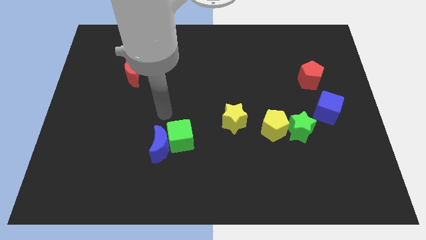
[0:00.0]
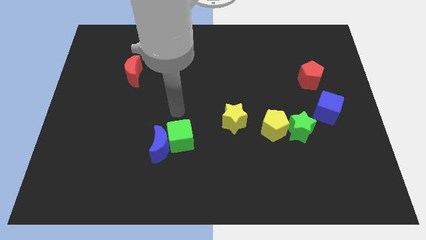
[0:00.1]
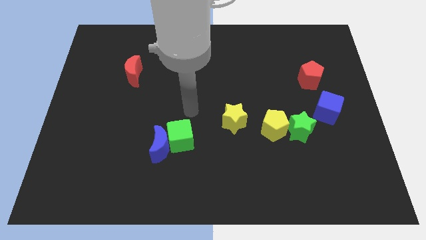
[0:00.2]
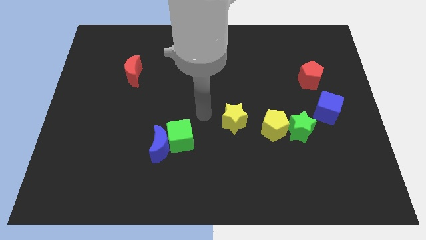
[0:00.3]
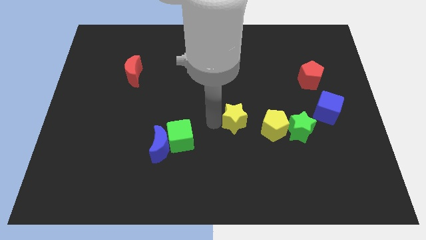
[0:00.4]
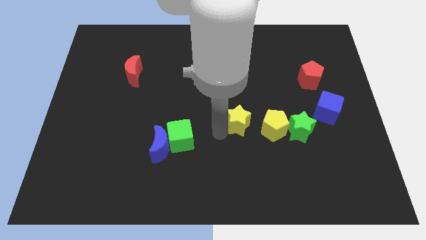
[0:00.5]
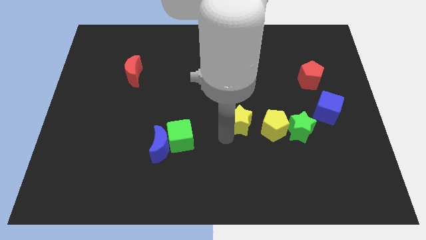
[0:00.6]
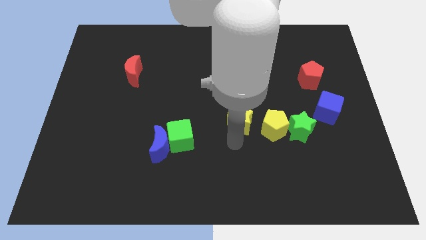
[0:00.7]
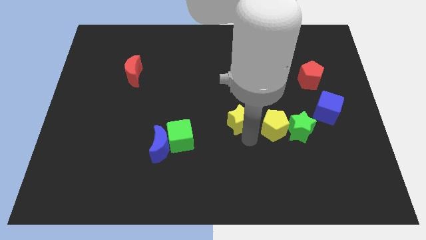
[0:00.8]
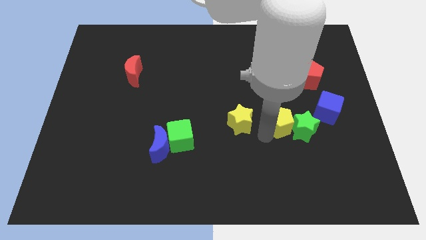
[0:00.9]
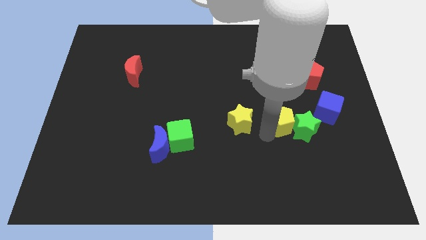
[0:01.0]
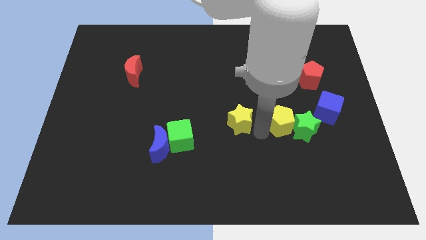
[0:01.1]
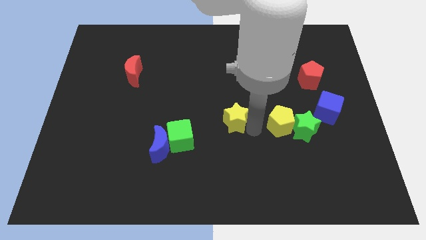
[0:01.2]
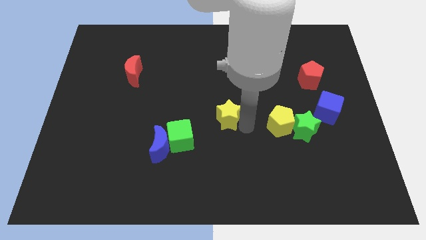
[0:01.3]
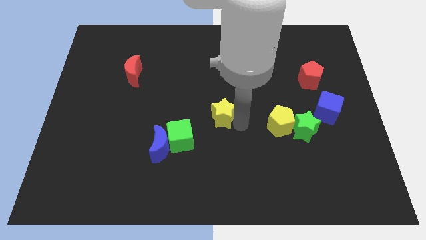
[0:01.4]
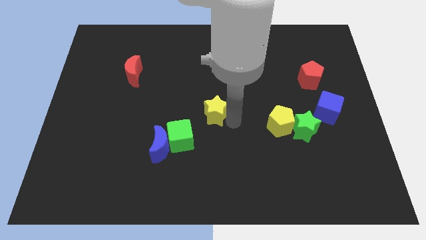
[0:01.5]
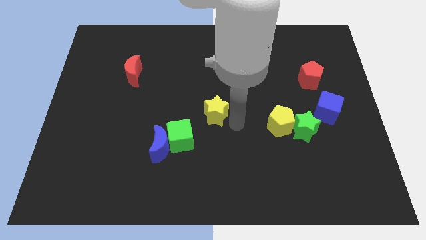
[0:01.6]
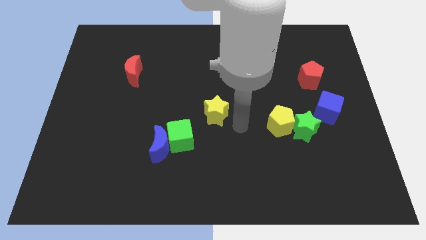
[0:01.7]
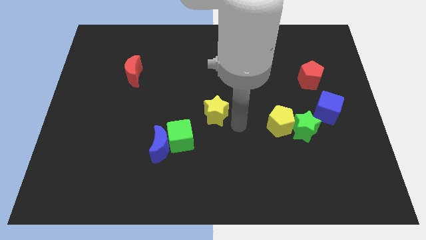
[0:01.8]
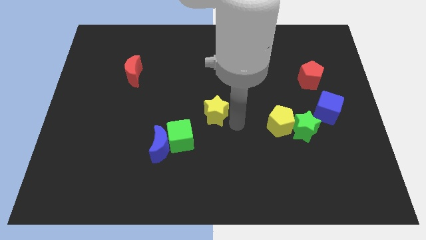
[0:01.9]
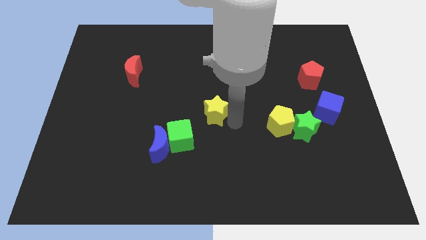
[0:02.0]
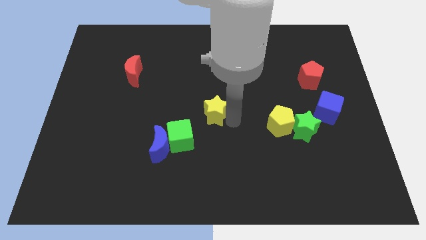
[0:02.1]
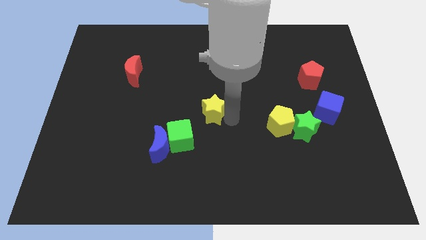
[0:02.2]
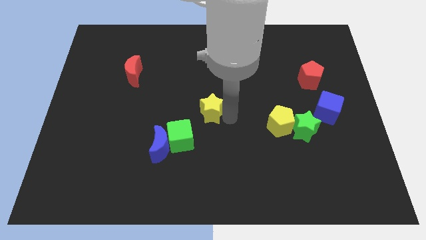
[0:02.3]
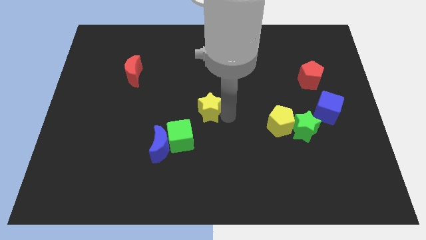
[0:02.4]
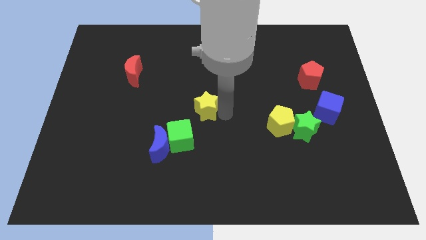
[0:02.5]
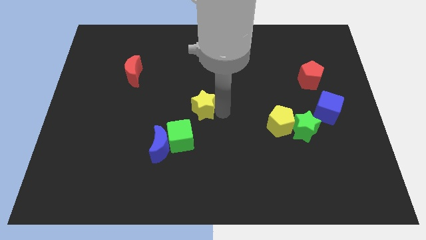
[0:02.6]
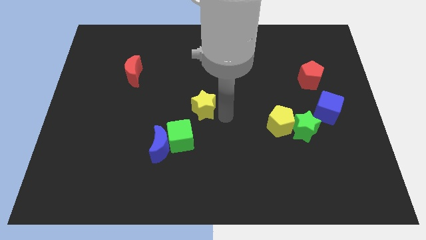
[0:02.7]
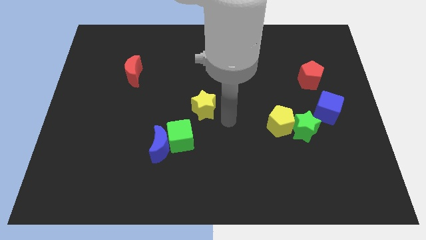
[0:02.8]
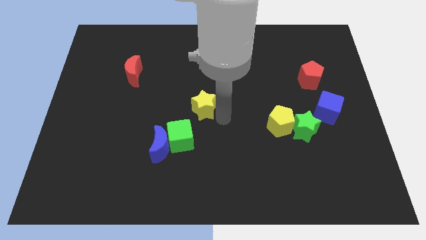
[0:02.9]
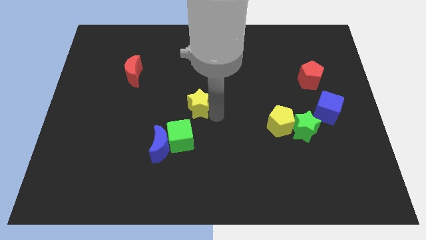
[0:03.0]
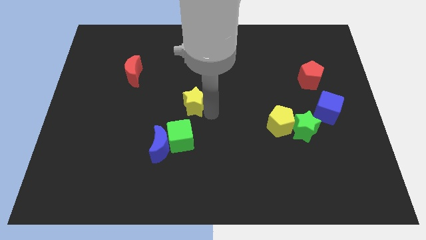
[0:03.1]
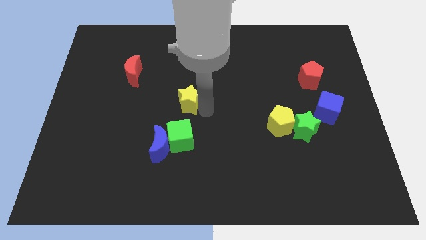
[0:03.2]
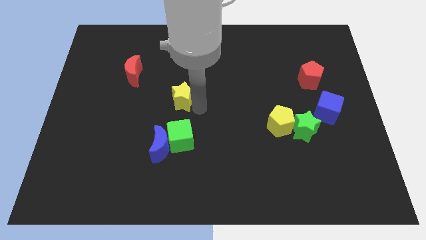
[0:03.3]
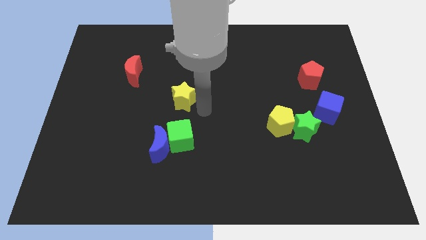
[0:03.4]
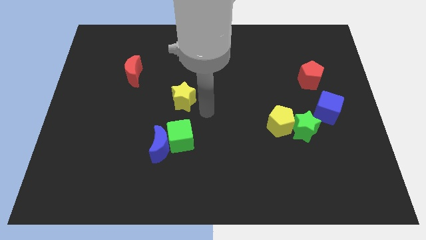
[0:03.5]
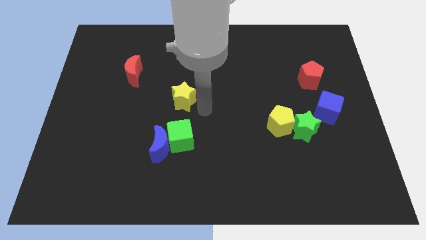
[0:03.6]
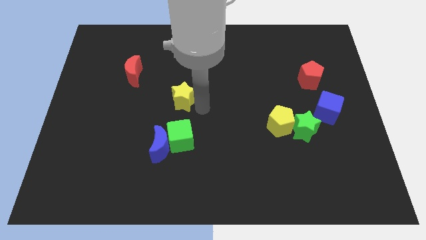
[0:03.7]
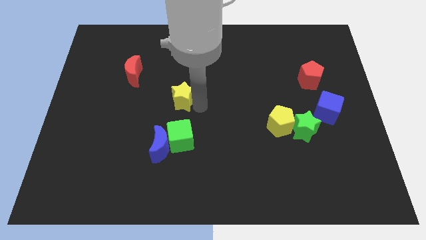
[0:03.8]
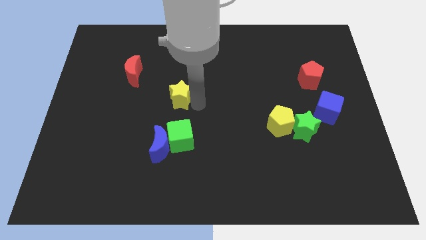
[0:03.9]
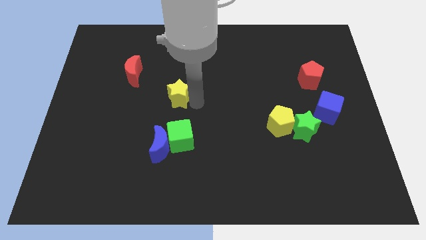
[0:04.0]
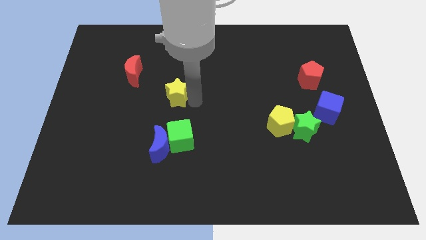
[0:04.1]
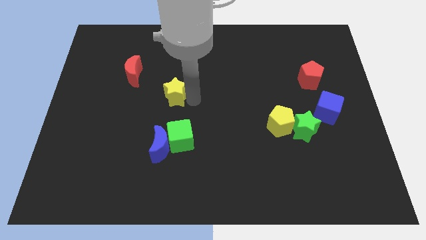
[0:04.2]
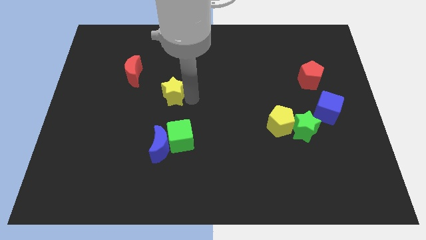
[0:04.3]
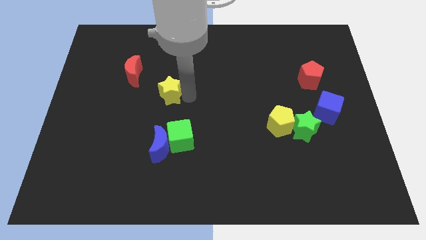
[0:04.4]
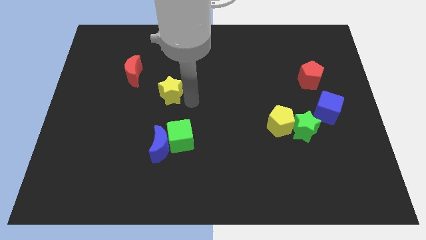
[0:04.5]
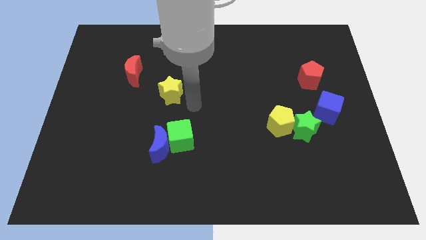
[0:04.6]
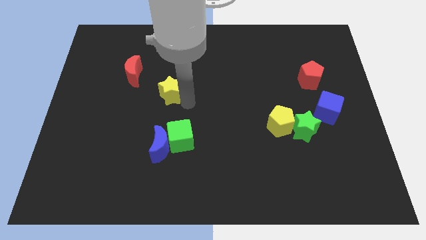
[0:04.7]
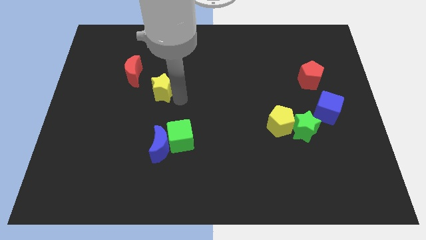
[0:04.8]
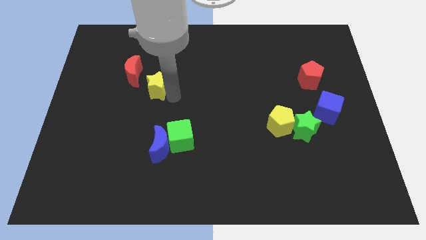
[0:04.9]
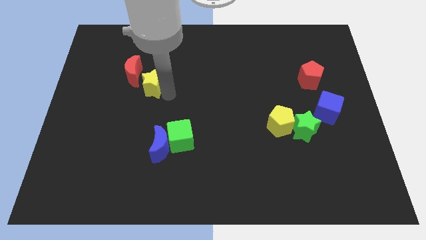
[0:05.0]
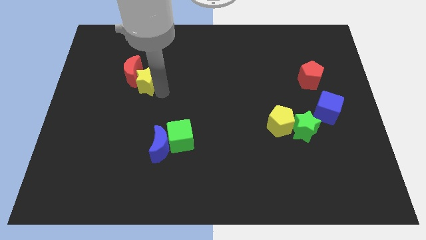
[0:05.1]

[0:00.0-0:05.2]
move the yellow star close to the red moon

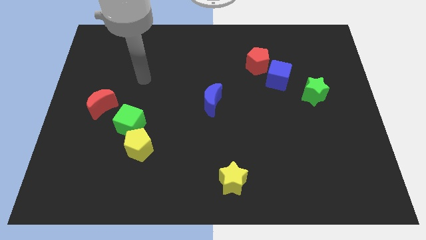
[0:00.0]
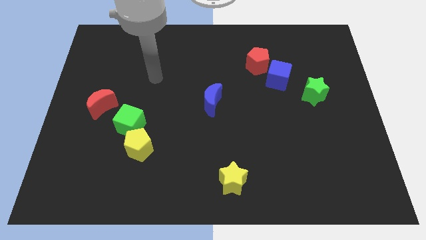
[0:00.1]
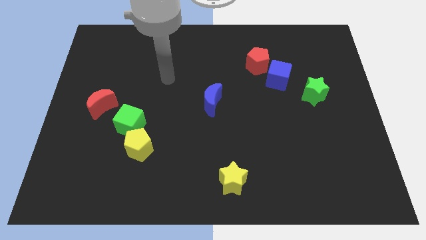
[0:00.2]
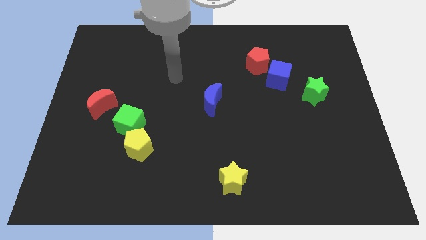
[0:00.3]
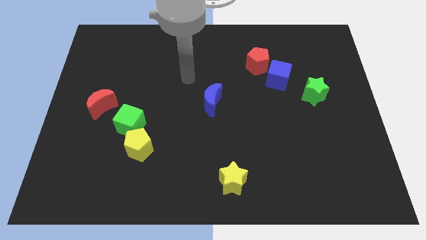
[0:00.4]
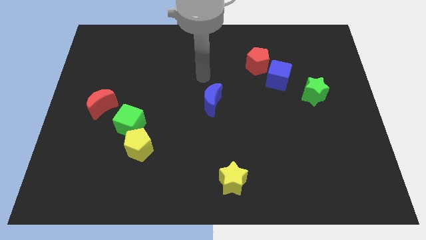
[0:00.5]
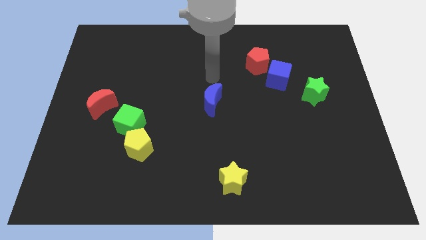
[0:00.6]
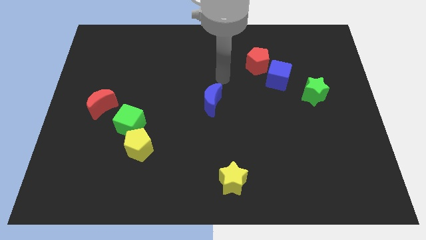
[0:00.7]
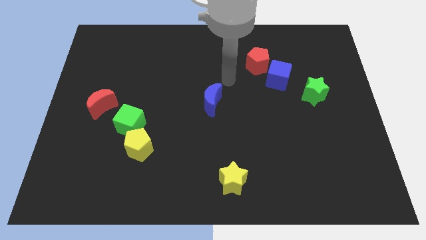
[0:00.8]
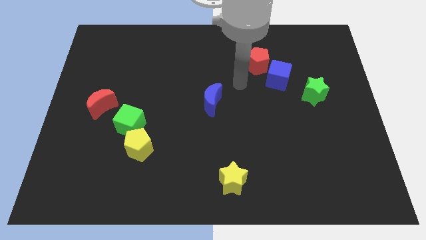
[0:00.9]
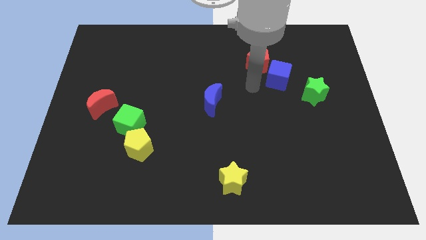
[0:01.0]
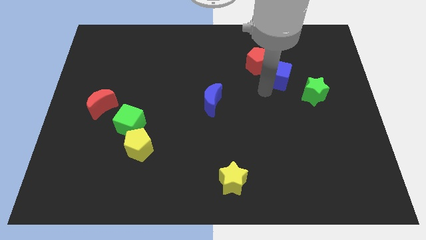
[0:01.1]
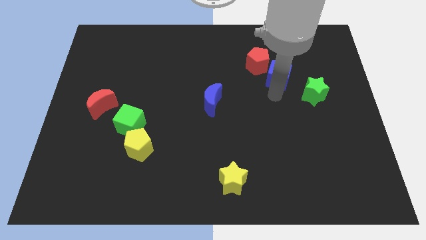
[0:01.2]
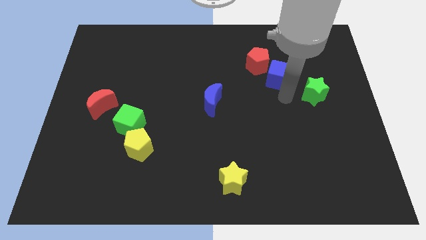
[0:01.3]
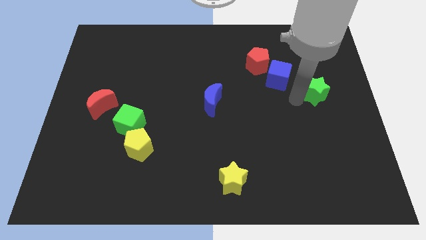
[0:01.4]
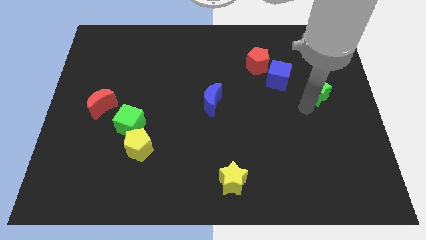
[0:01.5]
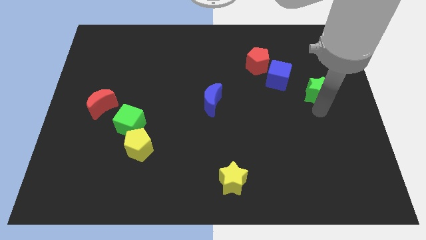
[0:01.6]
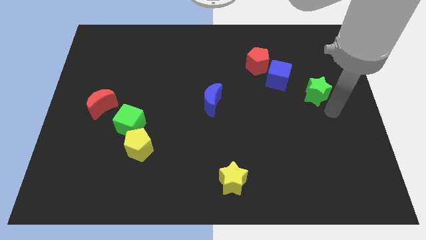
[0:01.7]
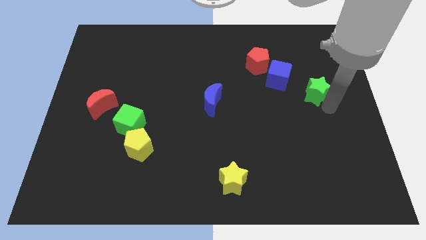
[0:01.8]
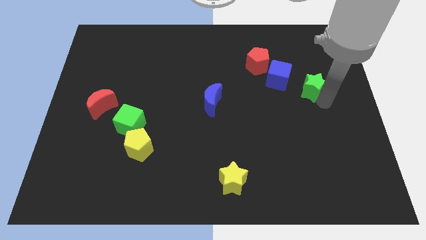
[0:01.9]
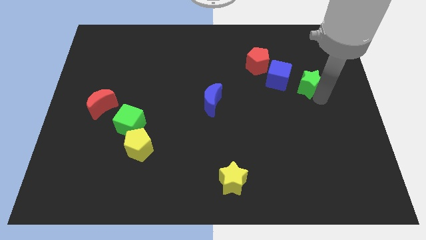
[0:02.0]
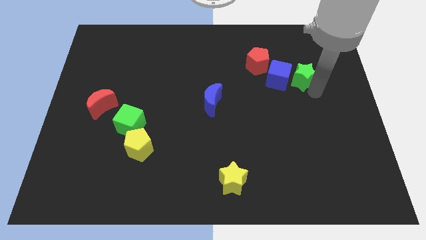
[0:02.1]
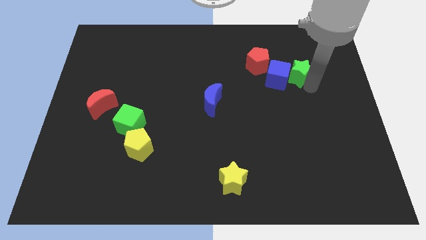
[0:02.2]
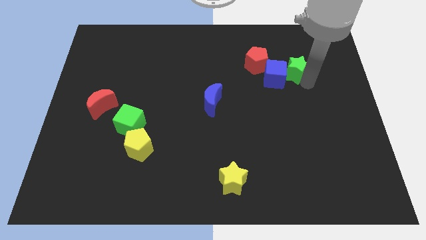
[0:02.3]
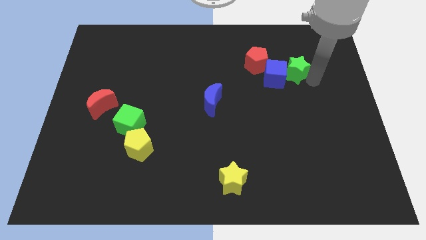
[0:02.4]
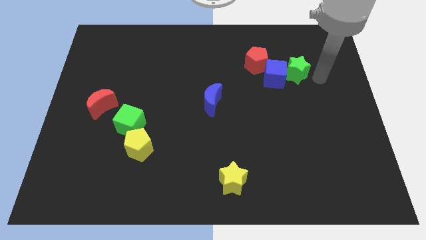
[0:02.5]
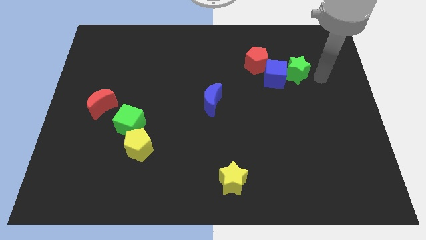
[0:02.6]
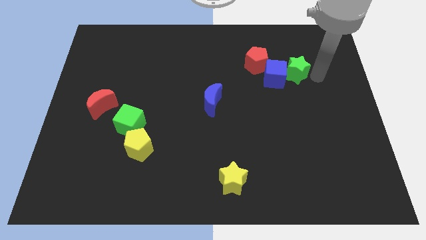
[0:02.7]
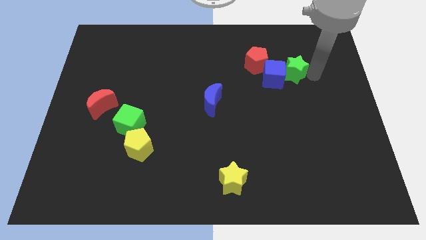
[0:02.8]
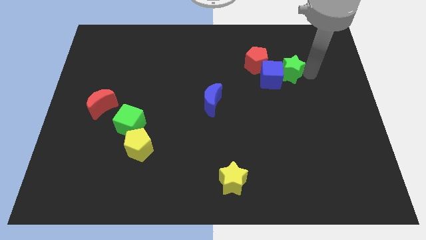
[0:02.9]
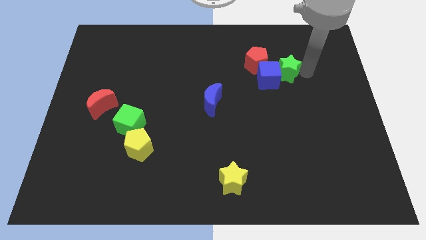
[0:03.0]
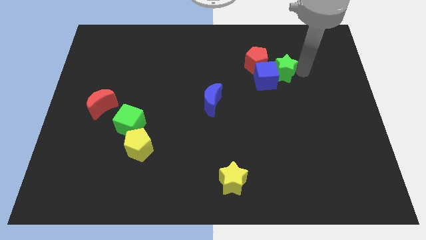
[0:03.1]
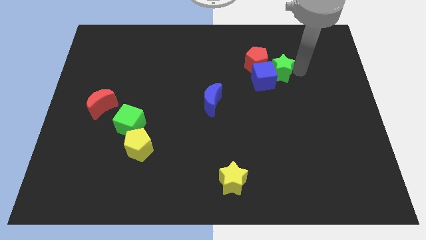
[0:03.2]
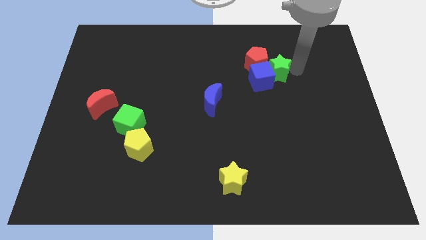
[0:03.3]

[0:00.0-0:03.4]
slide the green star towards the red pentagon
